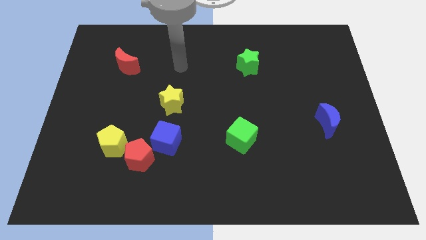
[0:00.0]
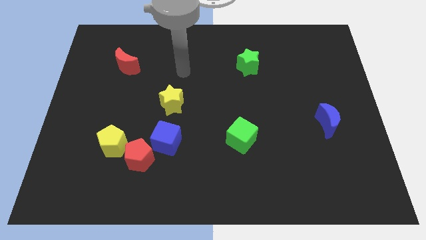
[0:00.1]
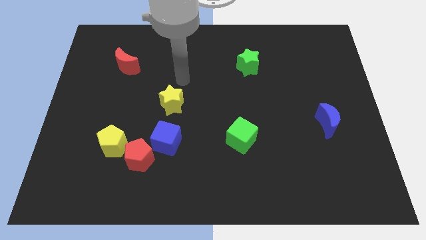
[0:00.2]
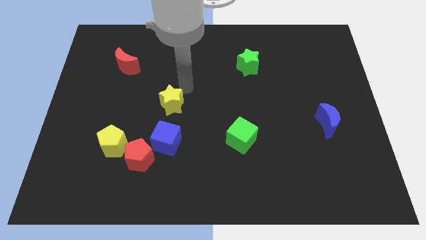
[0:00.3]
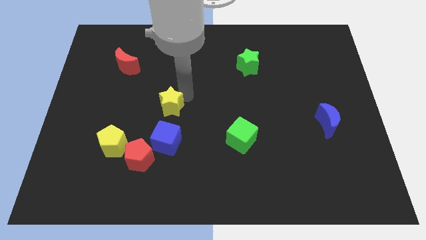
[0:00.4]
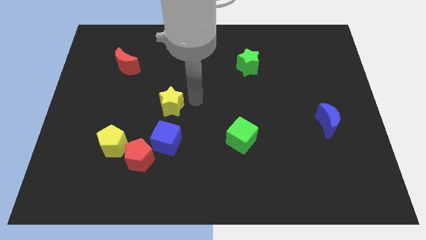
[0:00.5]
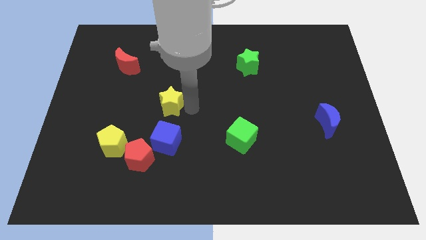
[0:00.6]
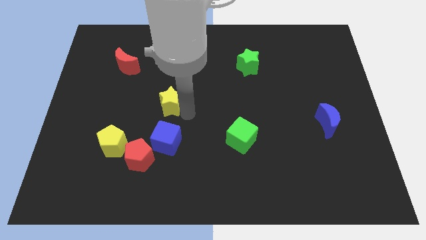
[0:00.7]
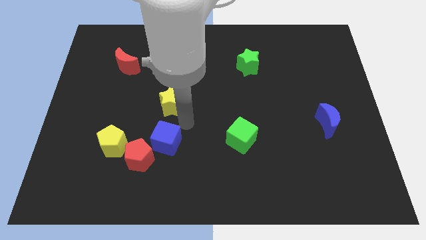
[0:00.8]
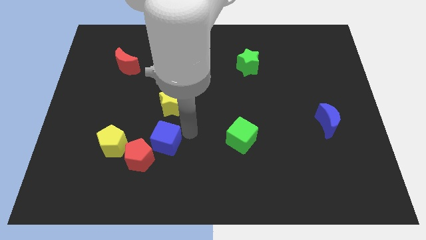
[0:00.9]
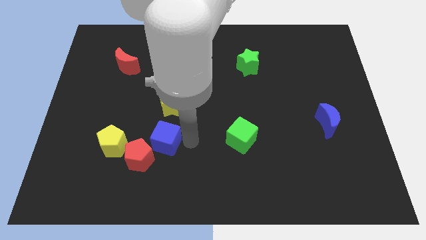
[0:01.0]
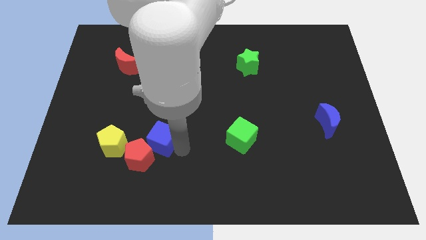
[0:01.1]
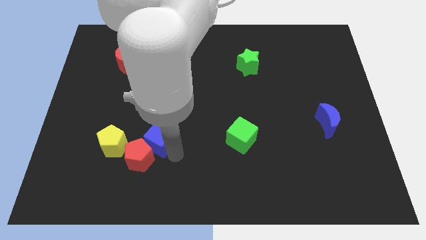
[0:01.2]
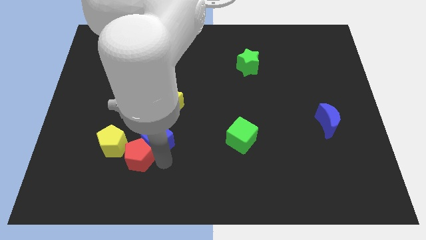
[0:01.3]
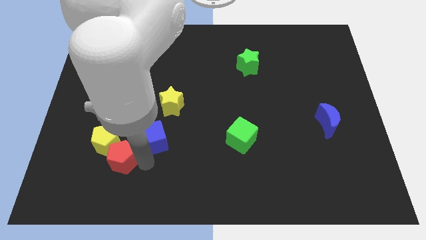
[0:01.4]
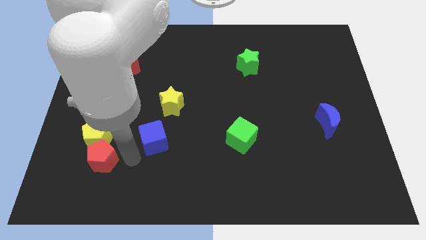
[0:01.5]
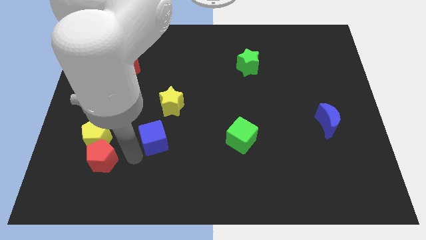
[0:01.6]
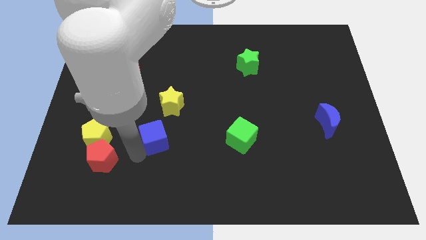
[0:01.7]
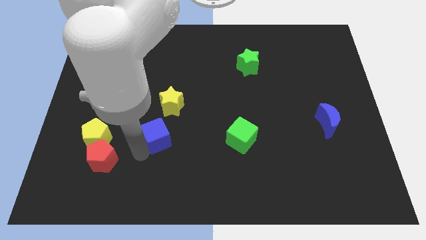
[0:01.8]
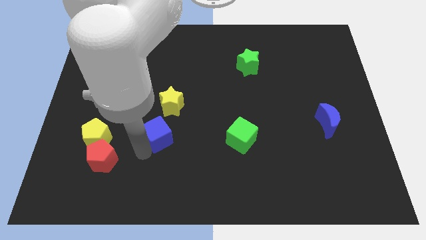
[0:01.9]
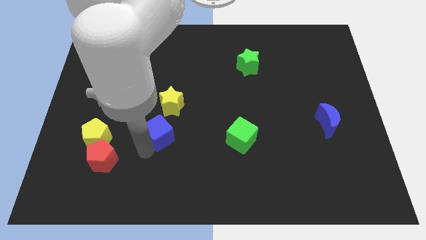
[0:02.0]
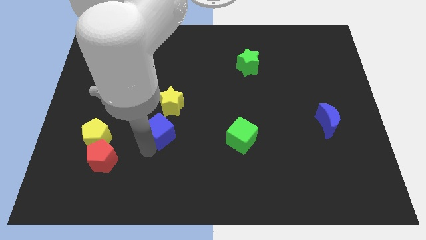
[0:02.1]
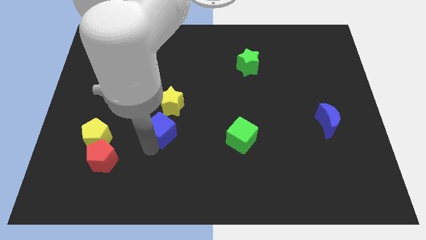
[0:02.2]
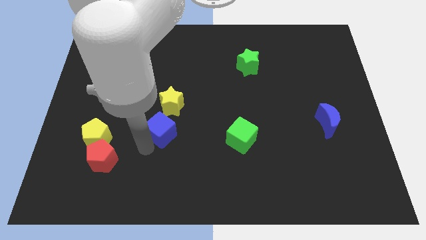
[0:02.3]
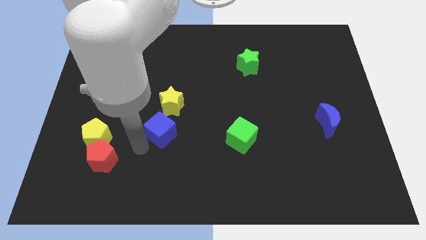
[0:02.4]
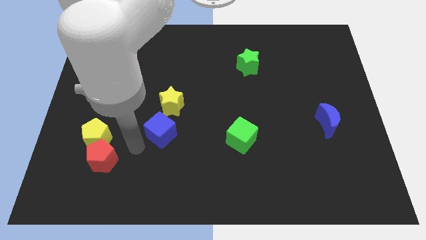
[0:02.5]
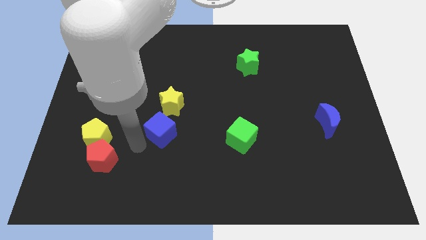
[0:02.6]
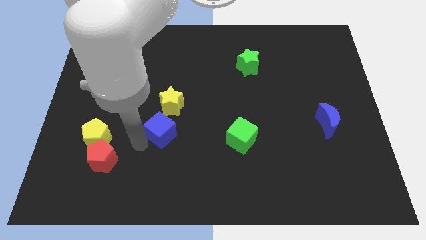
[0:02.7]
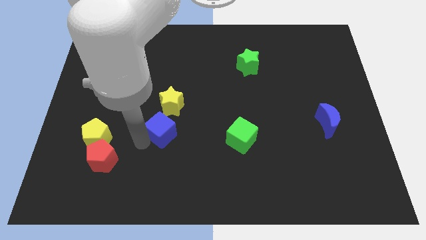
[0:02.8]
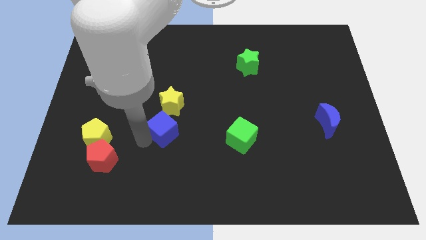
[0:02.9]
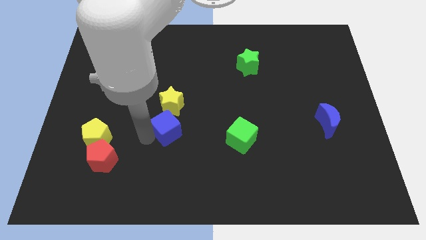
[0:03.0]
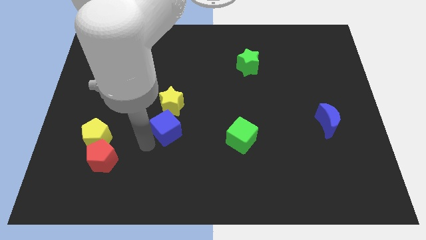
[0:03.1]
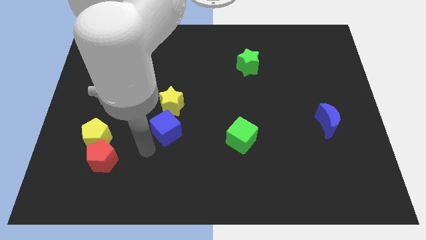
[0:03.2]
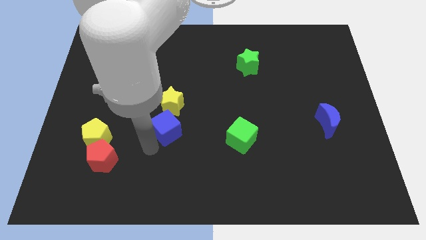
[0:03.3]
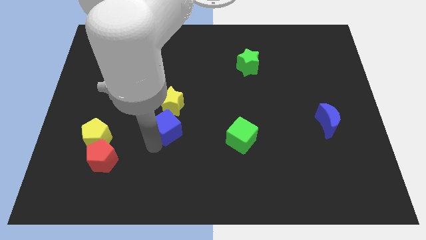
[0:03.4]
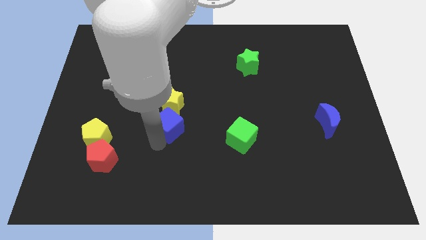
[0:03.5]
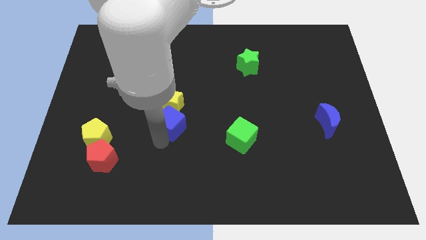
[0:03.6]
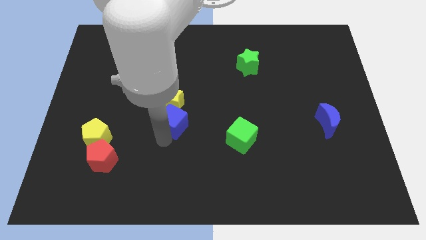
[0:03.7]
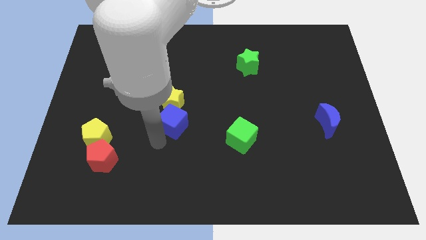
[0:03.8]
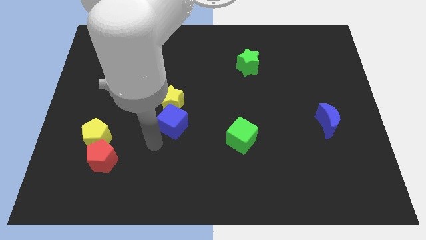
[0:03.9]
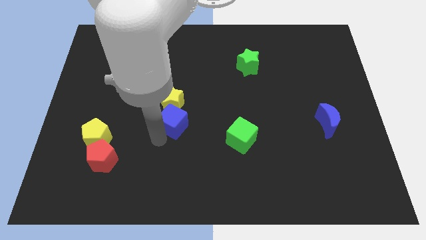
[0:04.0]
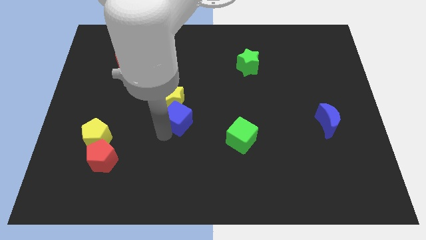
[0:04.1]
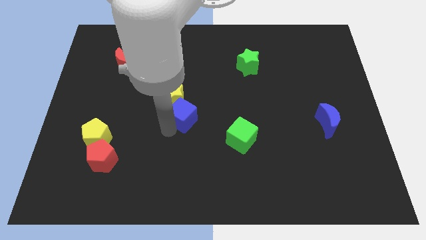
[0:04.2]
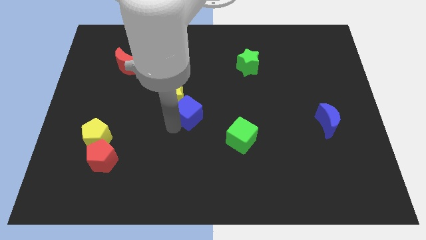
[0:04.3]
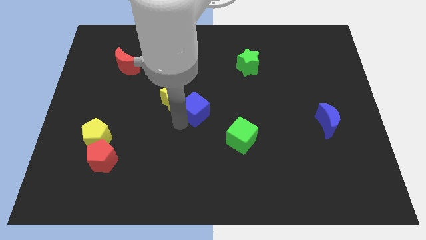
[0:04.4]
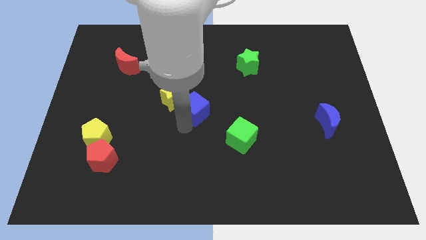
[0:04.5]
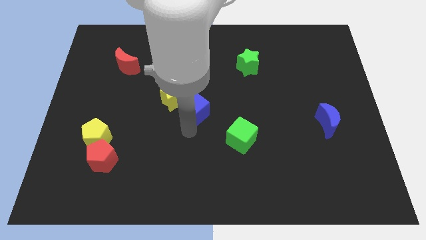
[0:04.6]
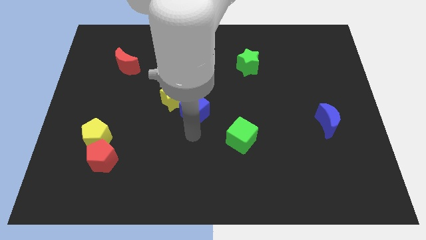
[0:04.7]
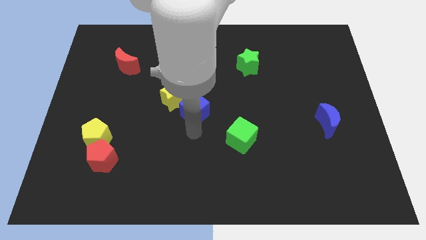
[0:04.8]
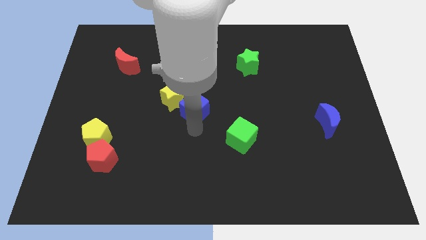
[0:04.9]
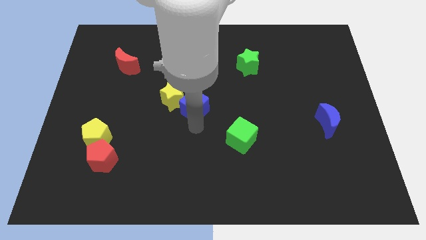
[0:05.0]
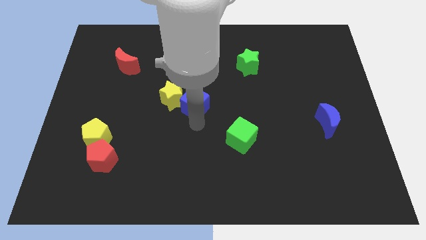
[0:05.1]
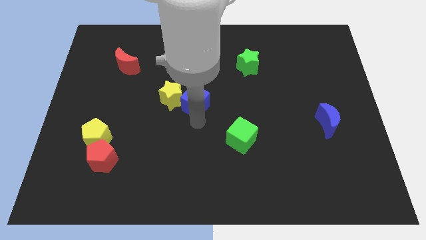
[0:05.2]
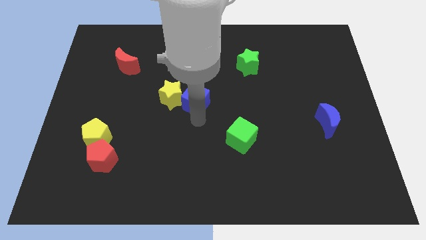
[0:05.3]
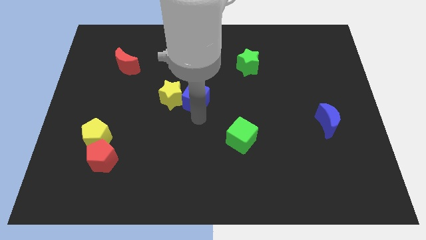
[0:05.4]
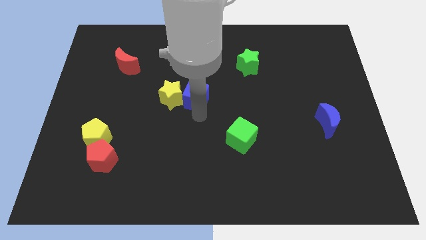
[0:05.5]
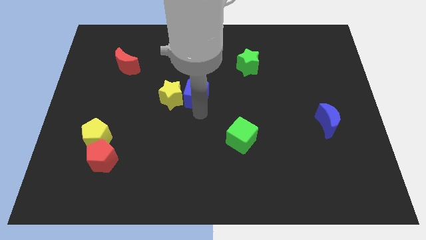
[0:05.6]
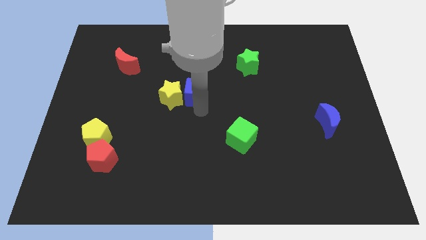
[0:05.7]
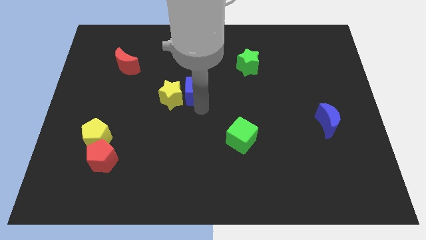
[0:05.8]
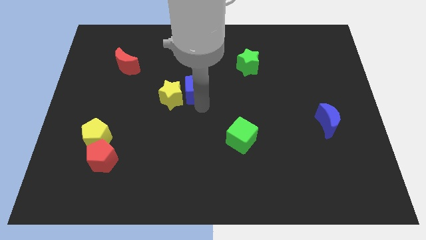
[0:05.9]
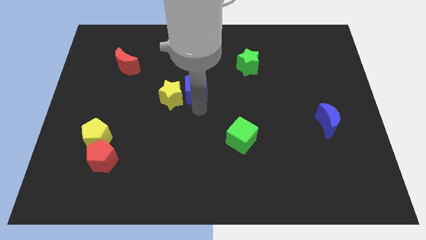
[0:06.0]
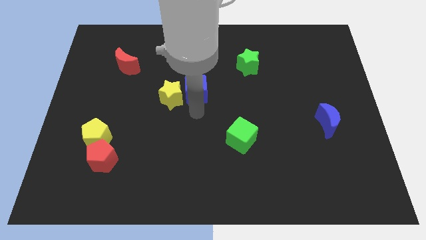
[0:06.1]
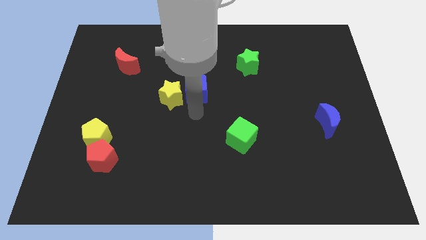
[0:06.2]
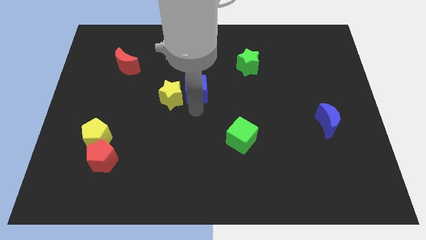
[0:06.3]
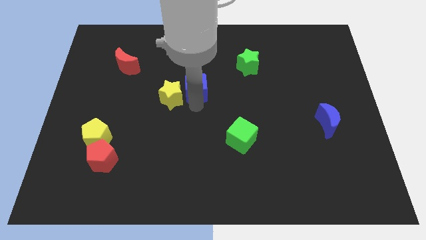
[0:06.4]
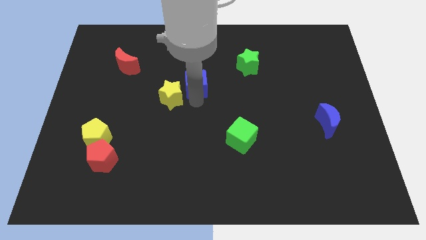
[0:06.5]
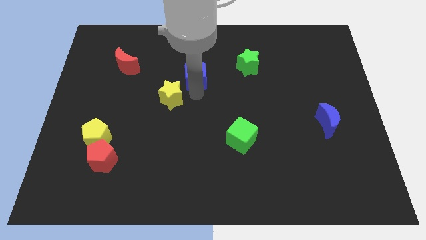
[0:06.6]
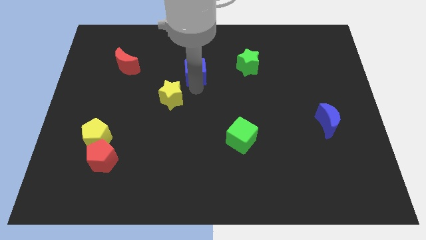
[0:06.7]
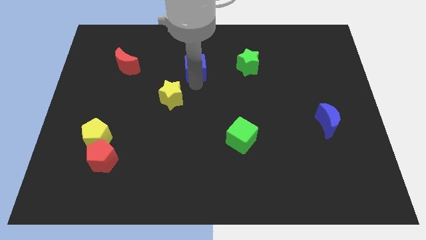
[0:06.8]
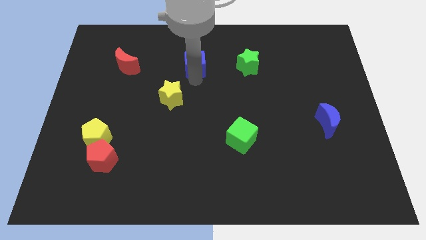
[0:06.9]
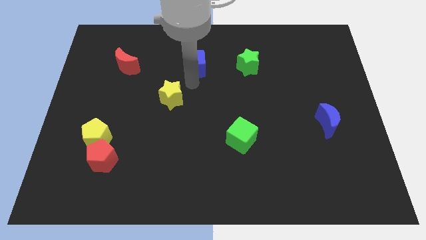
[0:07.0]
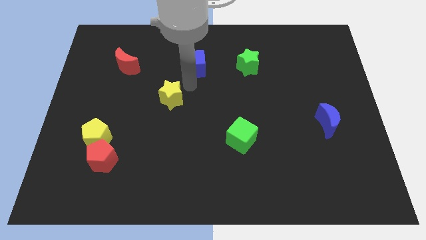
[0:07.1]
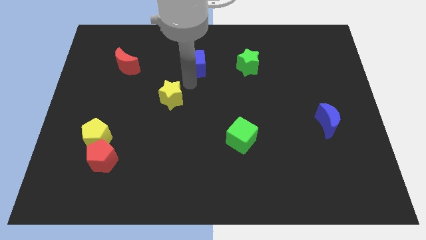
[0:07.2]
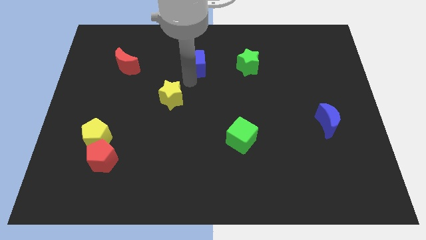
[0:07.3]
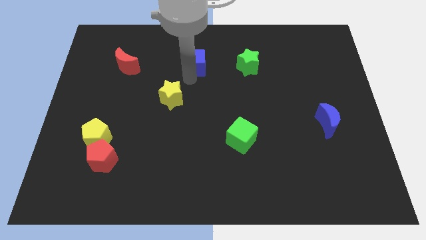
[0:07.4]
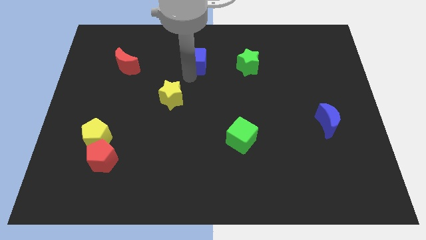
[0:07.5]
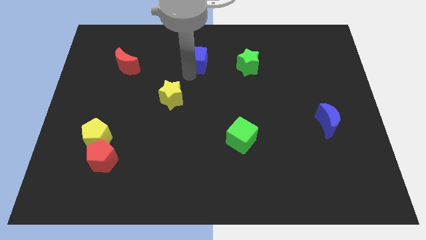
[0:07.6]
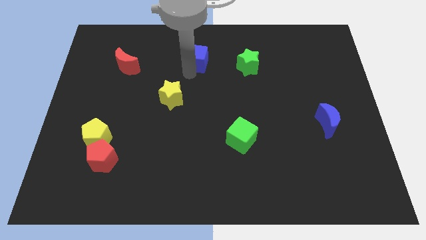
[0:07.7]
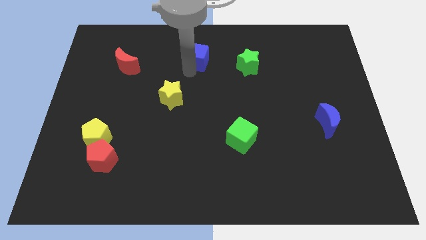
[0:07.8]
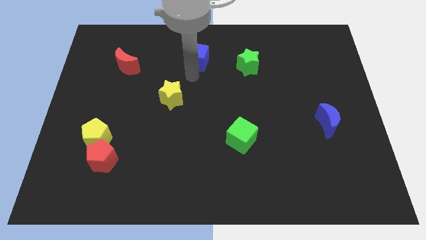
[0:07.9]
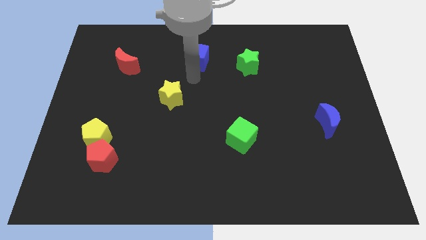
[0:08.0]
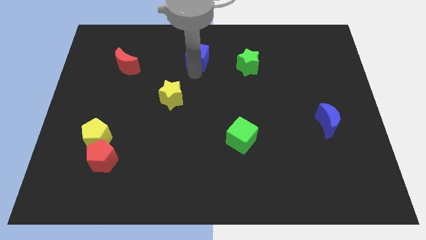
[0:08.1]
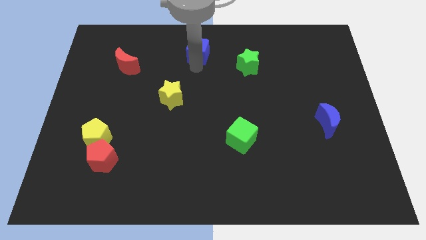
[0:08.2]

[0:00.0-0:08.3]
put the blue cube to the top
